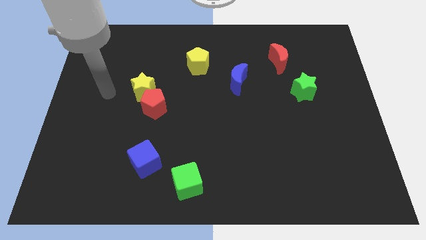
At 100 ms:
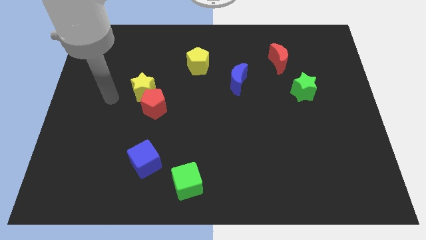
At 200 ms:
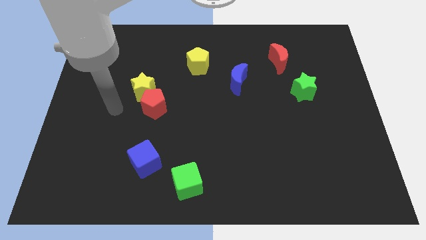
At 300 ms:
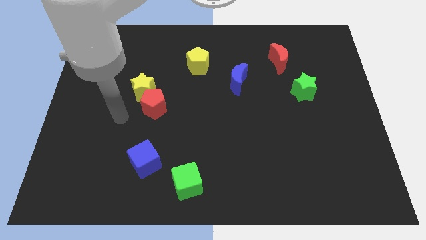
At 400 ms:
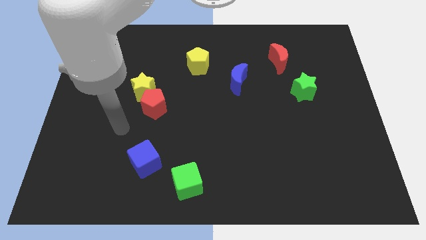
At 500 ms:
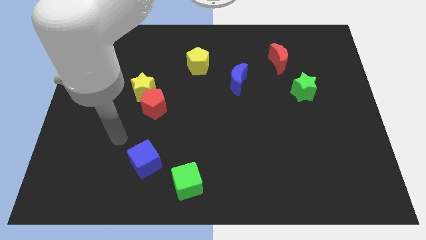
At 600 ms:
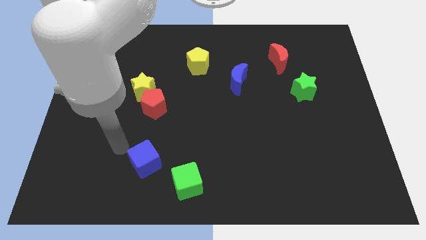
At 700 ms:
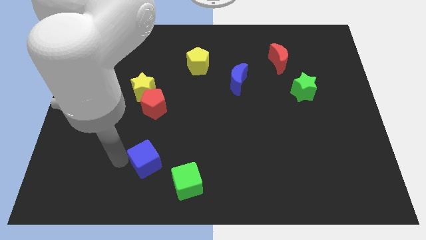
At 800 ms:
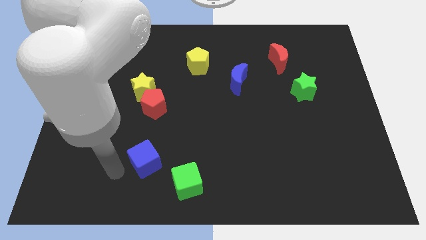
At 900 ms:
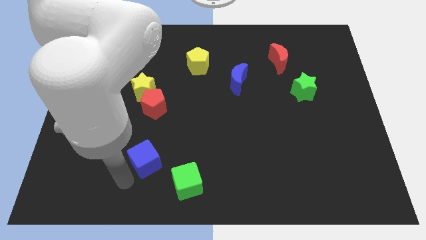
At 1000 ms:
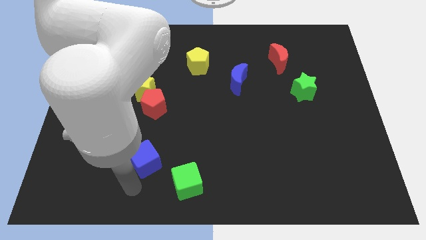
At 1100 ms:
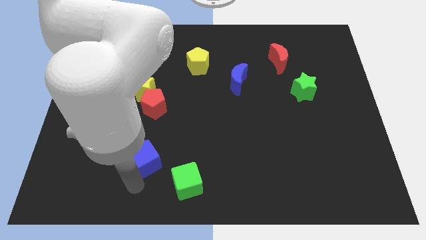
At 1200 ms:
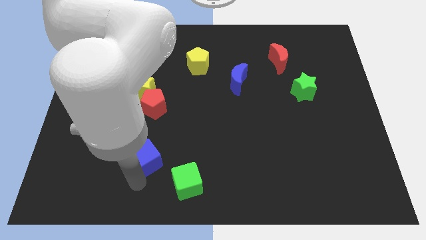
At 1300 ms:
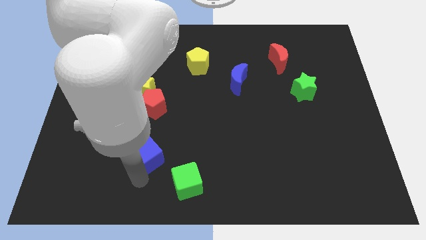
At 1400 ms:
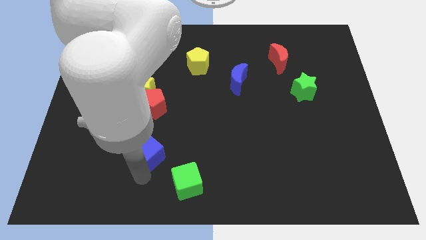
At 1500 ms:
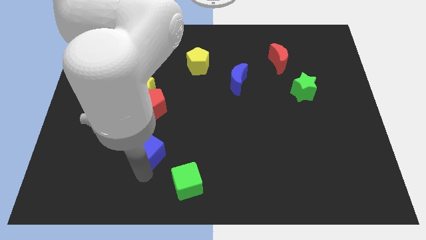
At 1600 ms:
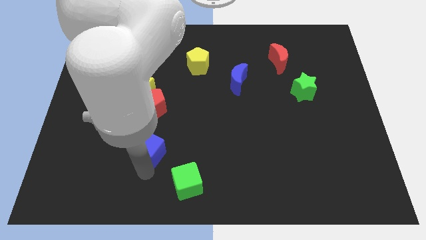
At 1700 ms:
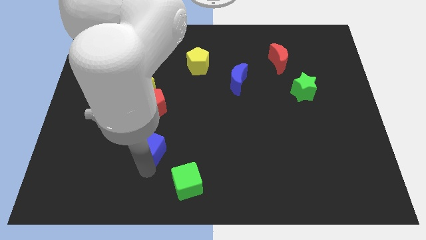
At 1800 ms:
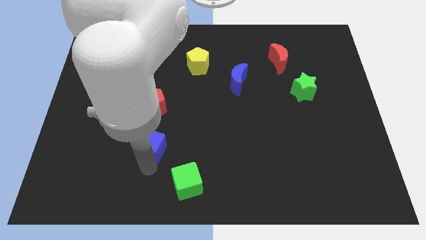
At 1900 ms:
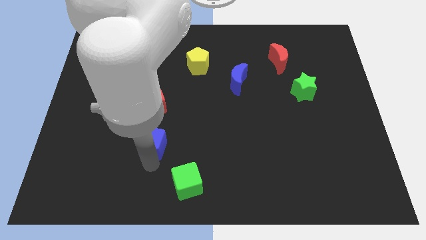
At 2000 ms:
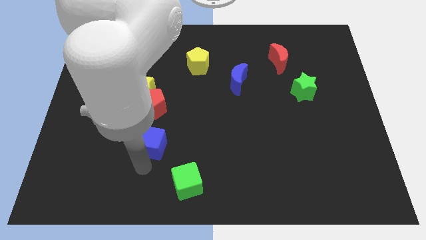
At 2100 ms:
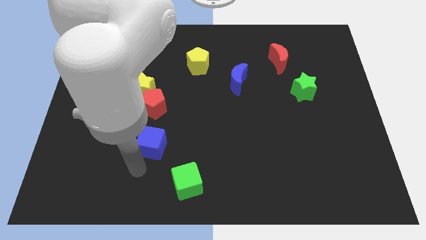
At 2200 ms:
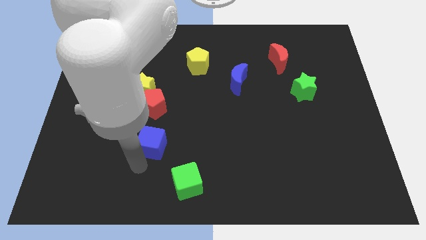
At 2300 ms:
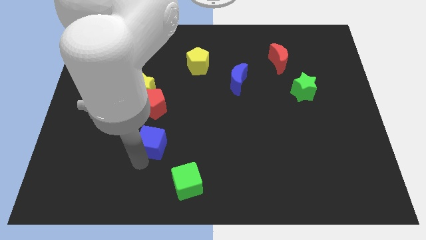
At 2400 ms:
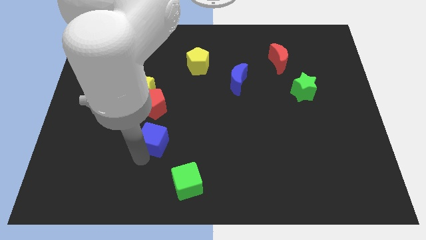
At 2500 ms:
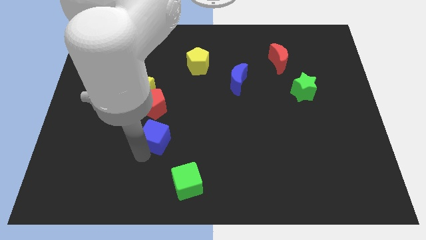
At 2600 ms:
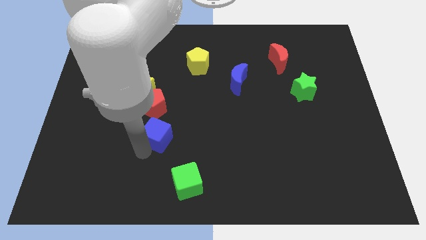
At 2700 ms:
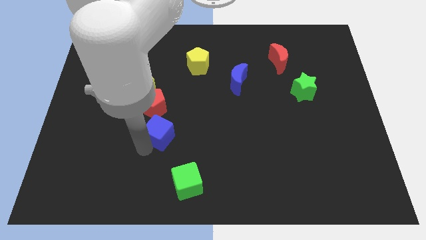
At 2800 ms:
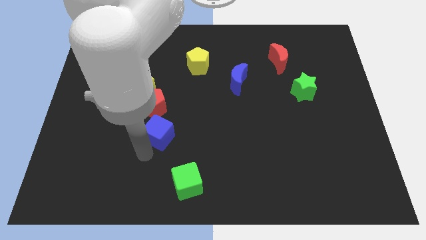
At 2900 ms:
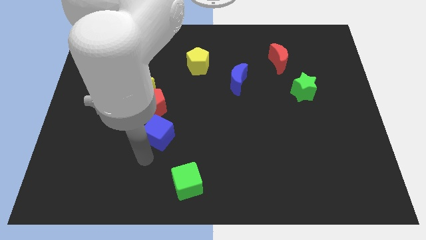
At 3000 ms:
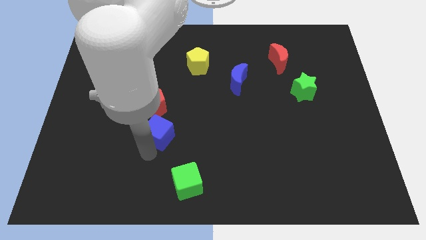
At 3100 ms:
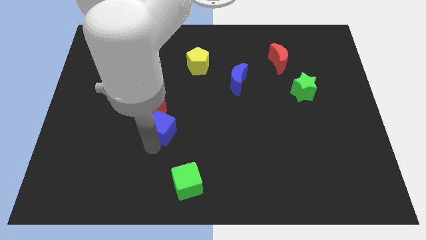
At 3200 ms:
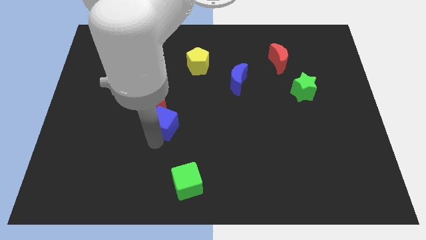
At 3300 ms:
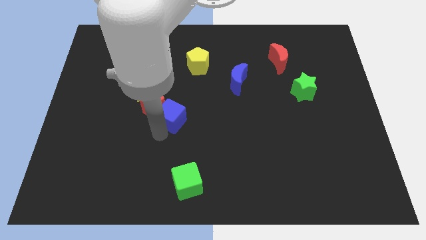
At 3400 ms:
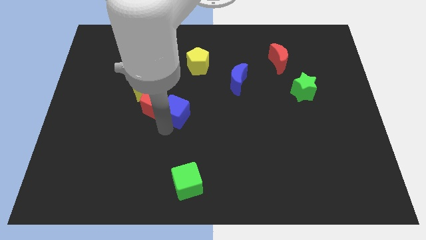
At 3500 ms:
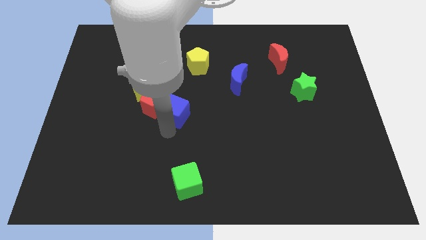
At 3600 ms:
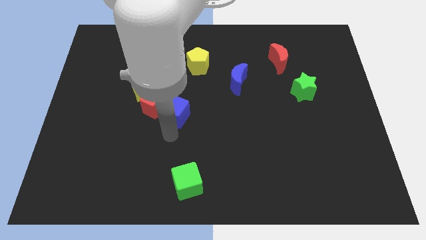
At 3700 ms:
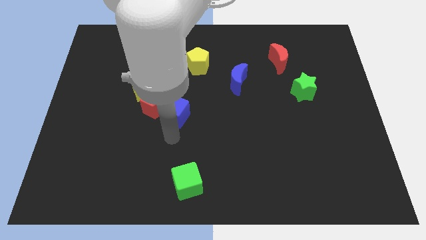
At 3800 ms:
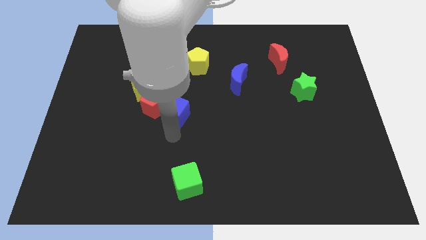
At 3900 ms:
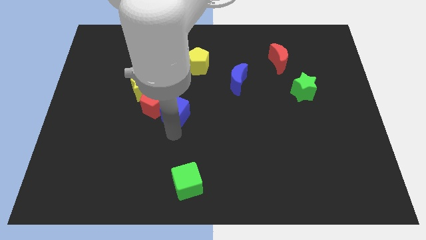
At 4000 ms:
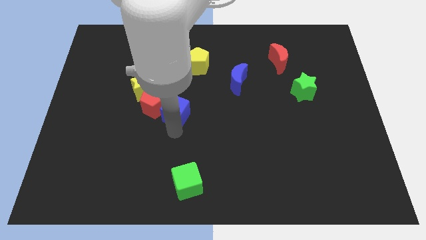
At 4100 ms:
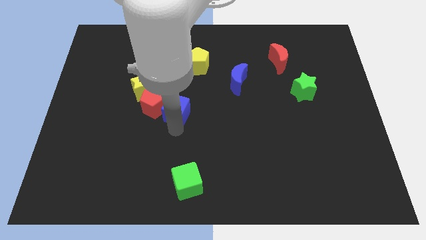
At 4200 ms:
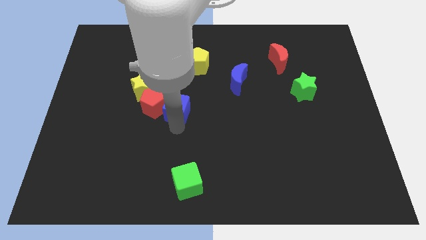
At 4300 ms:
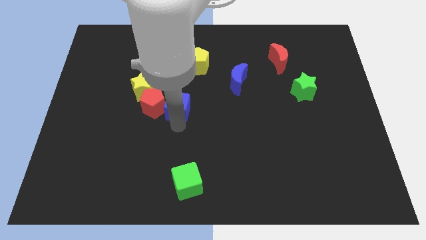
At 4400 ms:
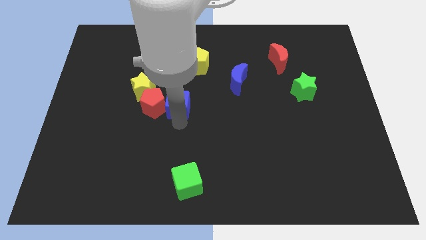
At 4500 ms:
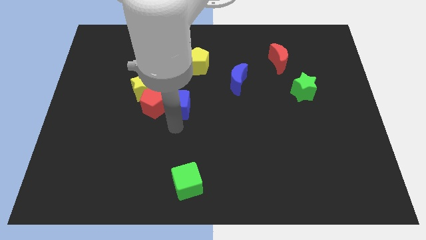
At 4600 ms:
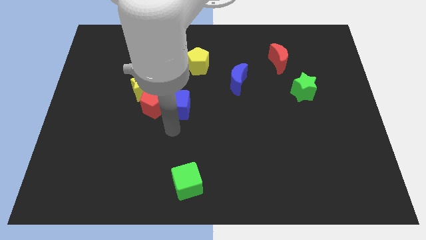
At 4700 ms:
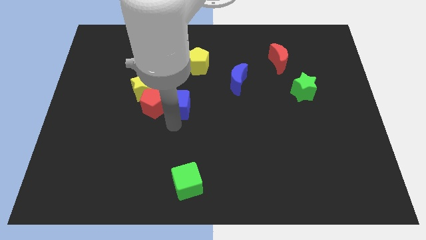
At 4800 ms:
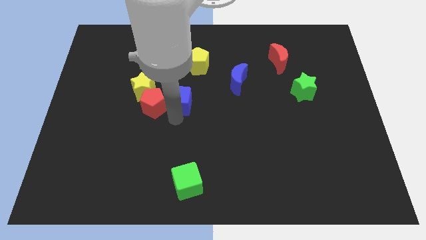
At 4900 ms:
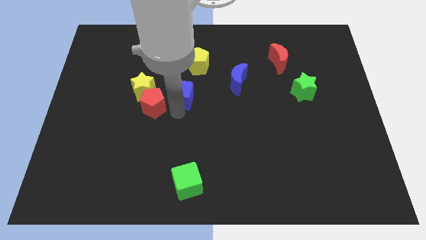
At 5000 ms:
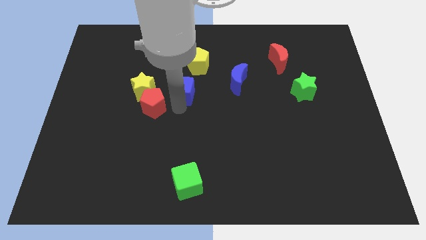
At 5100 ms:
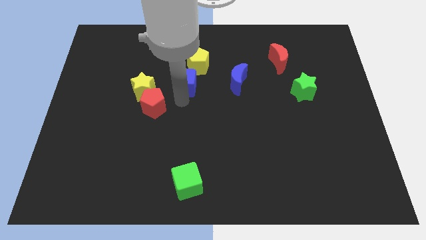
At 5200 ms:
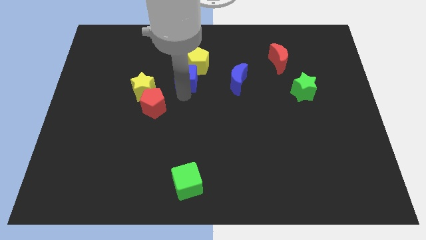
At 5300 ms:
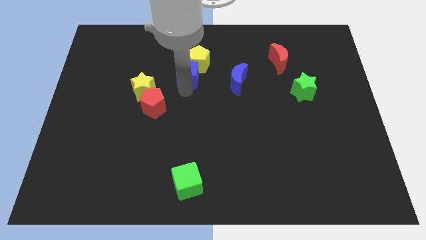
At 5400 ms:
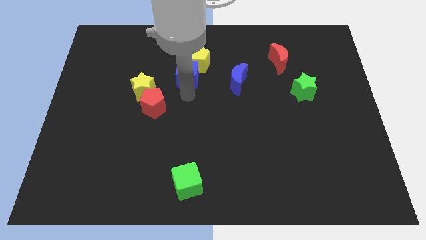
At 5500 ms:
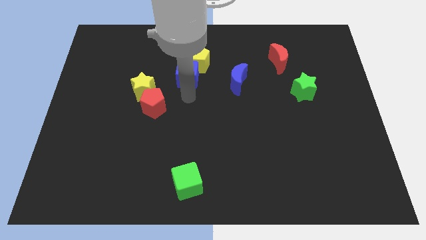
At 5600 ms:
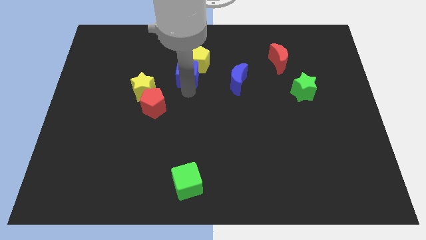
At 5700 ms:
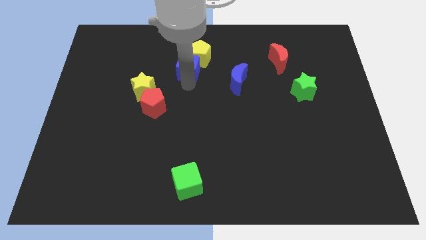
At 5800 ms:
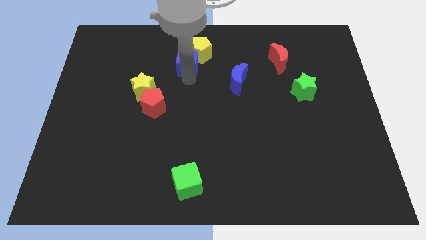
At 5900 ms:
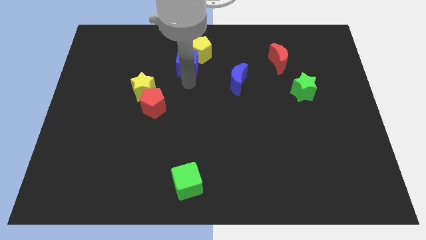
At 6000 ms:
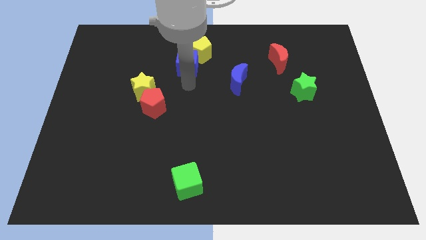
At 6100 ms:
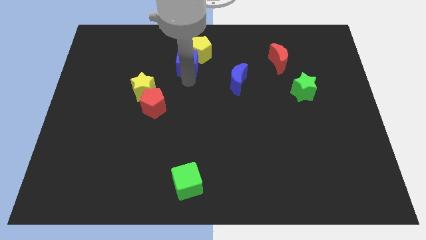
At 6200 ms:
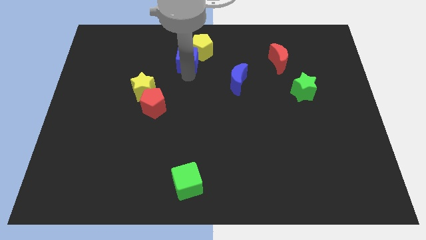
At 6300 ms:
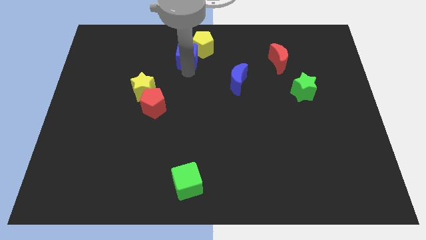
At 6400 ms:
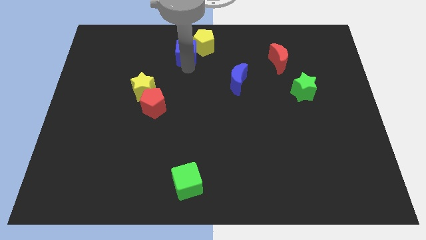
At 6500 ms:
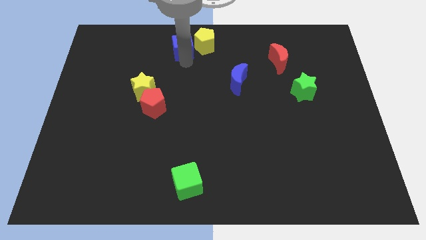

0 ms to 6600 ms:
push the blue cube to the top side

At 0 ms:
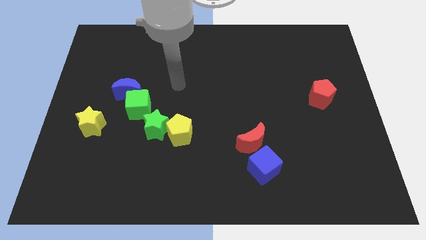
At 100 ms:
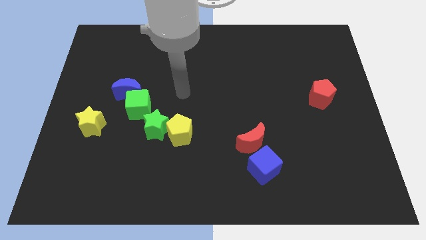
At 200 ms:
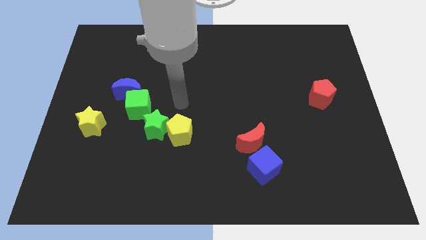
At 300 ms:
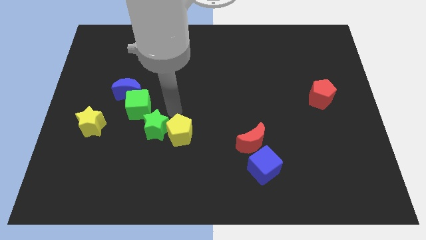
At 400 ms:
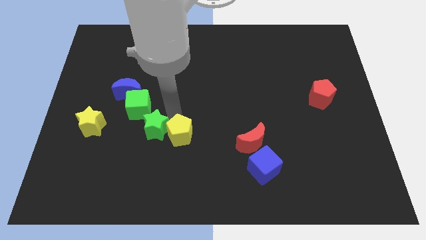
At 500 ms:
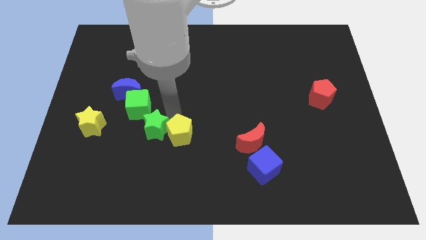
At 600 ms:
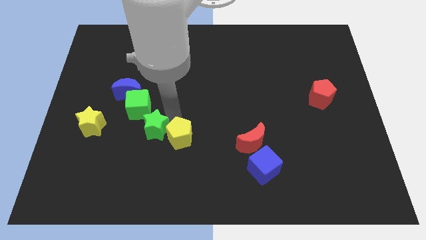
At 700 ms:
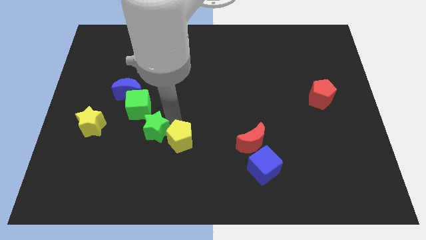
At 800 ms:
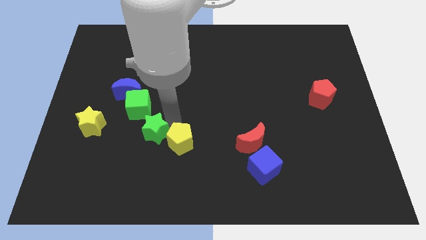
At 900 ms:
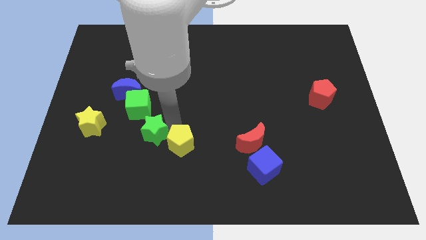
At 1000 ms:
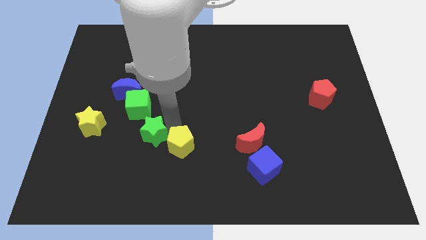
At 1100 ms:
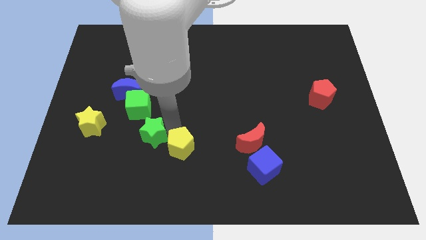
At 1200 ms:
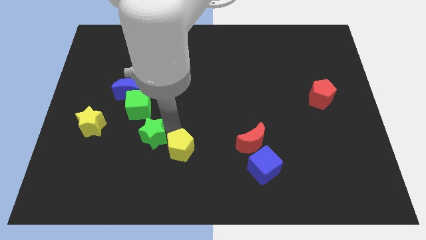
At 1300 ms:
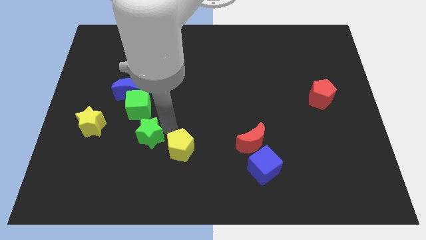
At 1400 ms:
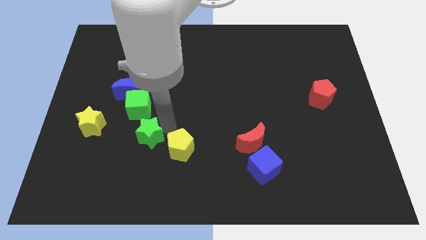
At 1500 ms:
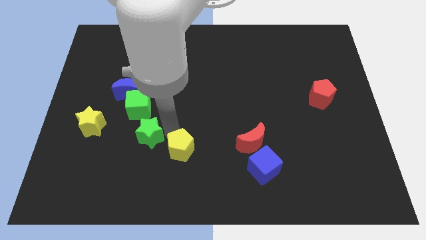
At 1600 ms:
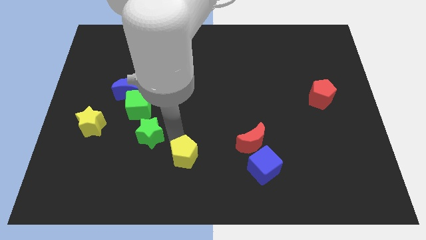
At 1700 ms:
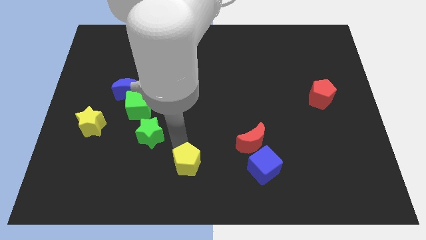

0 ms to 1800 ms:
slide the yellow pentagon to the bottom
